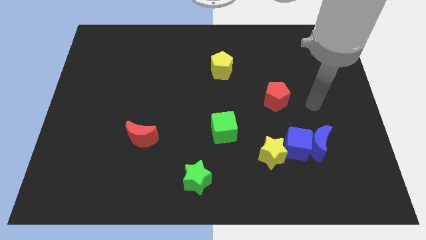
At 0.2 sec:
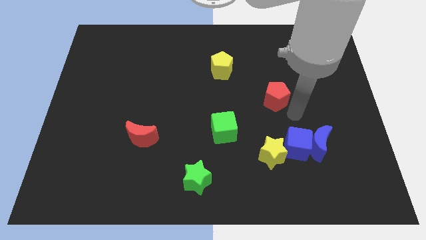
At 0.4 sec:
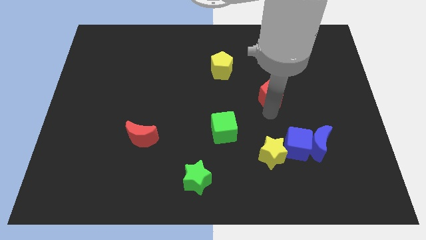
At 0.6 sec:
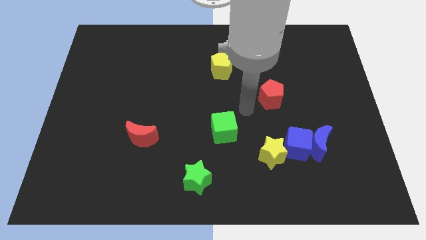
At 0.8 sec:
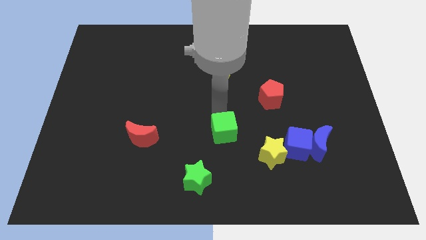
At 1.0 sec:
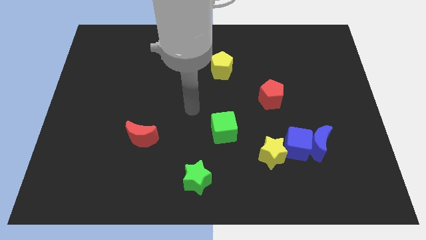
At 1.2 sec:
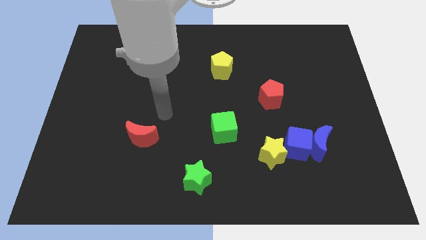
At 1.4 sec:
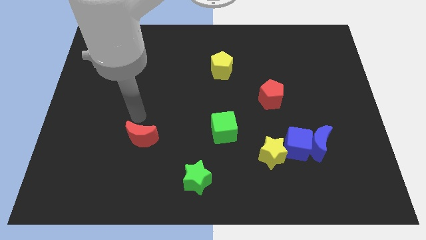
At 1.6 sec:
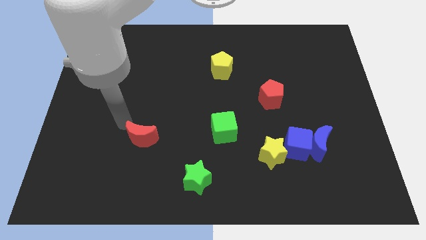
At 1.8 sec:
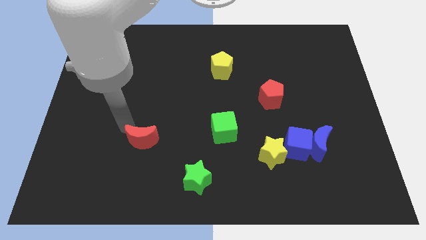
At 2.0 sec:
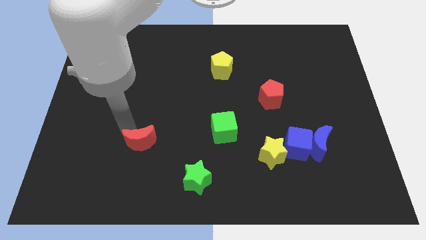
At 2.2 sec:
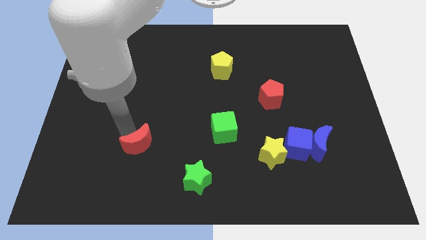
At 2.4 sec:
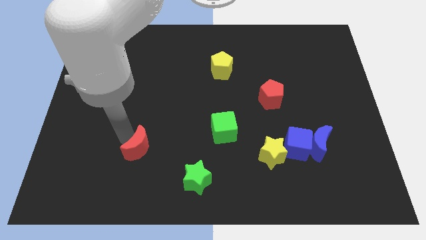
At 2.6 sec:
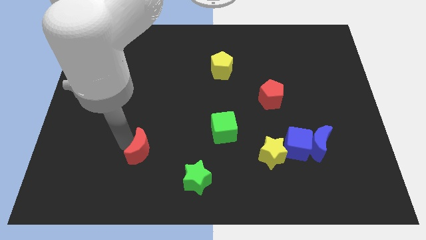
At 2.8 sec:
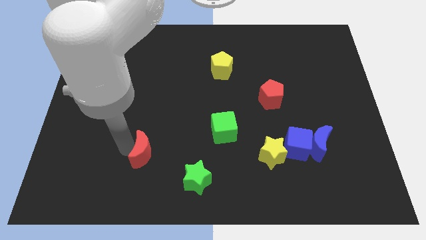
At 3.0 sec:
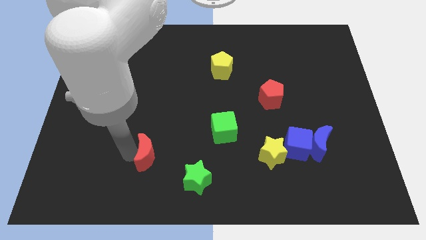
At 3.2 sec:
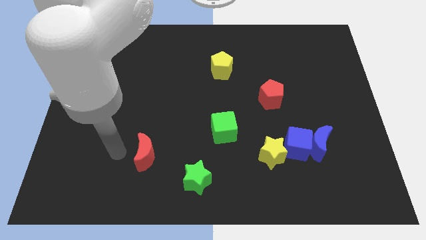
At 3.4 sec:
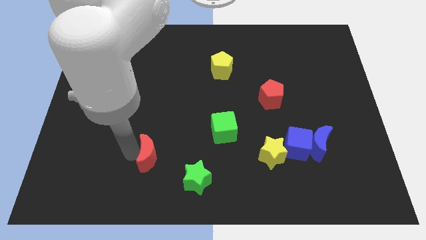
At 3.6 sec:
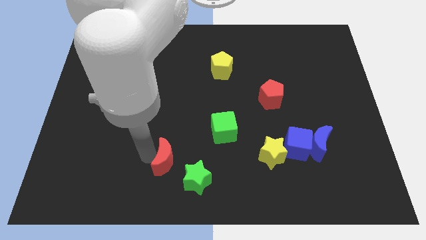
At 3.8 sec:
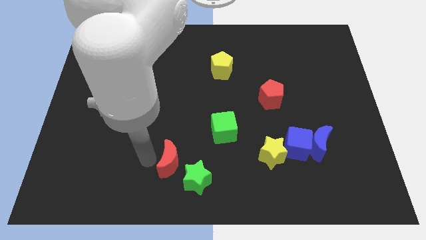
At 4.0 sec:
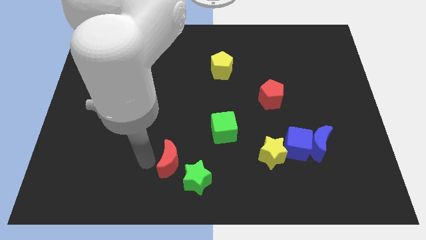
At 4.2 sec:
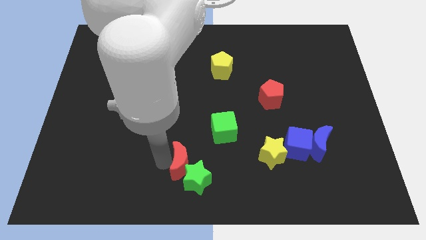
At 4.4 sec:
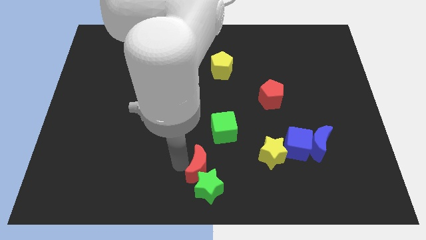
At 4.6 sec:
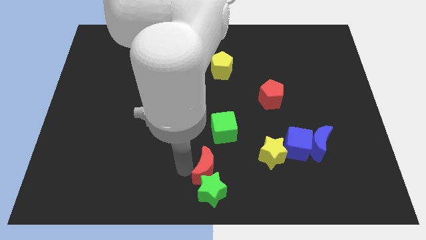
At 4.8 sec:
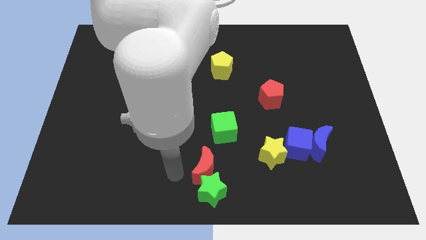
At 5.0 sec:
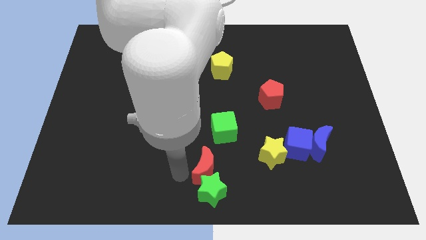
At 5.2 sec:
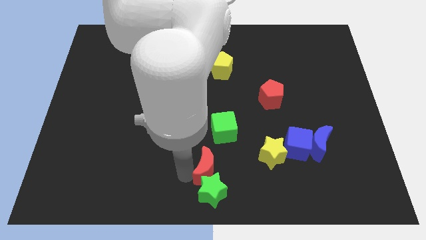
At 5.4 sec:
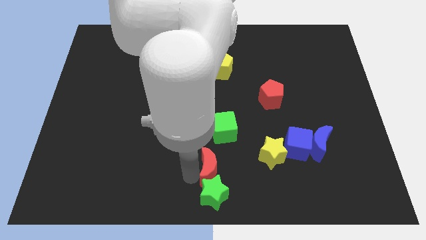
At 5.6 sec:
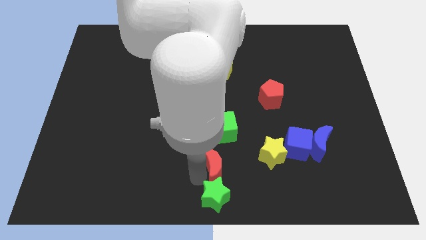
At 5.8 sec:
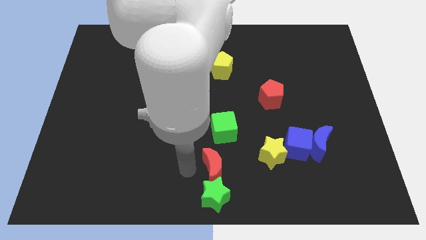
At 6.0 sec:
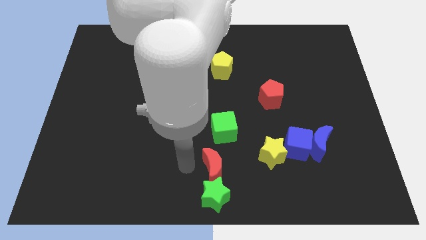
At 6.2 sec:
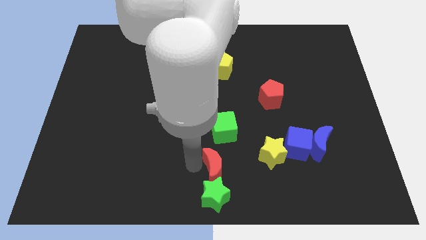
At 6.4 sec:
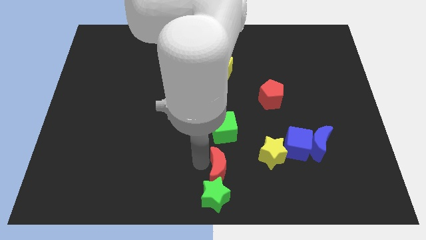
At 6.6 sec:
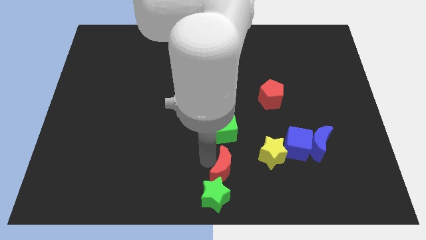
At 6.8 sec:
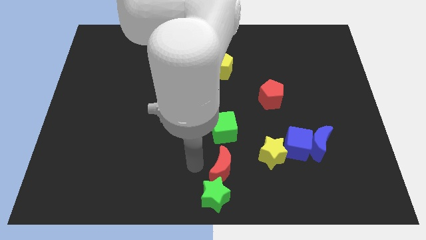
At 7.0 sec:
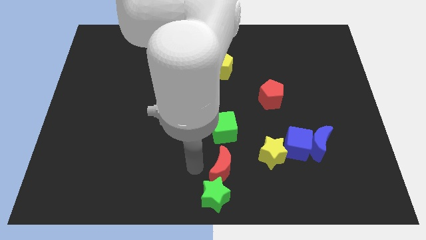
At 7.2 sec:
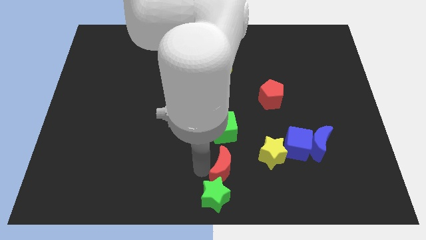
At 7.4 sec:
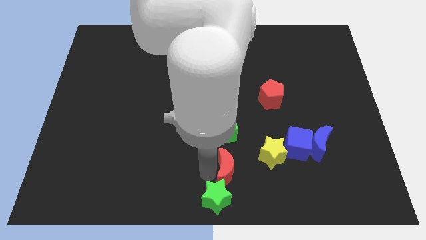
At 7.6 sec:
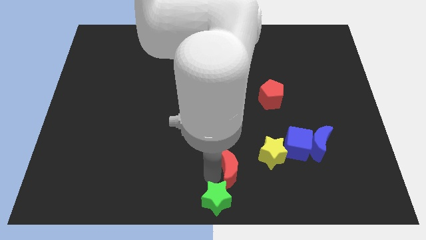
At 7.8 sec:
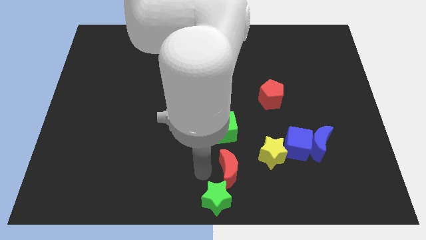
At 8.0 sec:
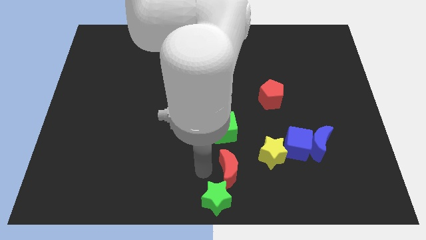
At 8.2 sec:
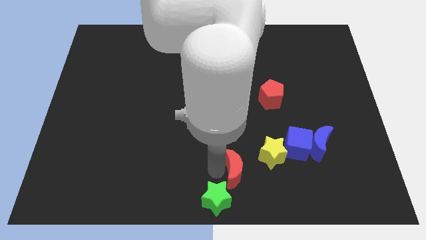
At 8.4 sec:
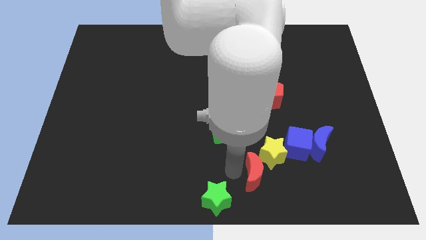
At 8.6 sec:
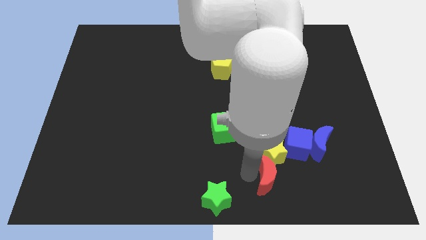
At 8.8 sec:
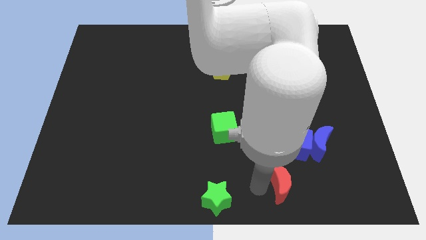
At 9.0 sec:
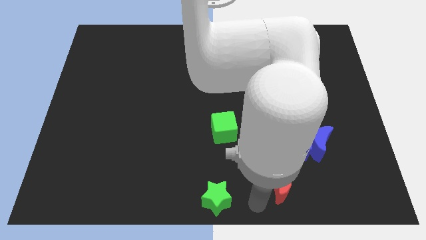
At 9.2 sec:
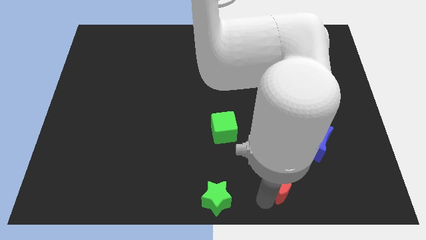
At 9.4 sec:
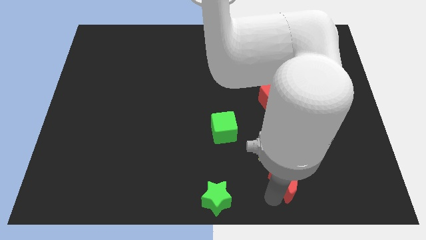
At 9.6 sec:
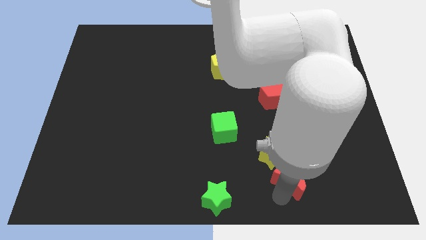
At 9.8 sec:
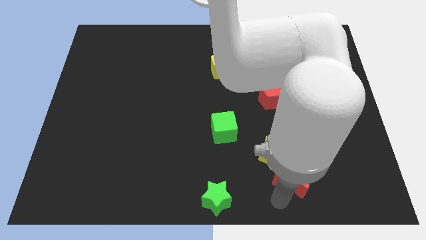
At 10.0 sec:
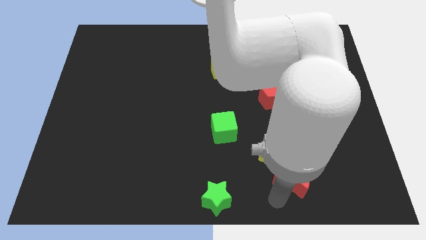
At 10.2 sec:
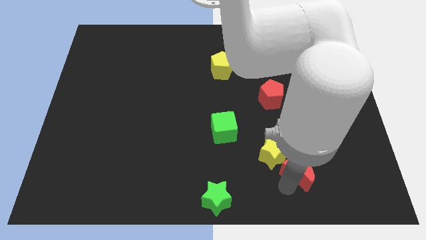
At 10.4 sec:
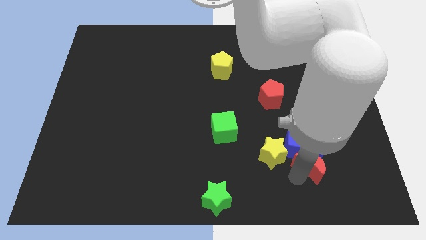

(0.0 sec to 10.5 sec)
slide the red moon next to the blue moon

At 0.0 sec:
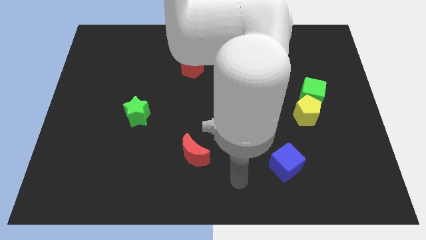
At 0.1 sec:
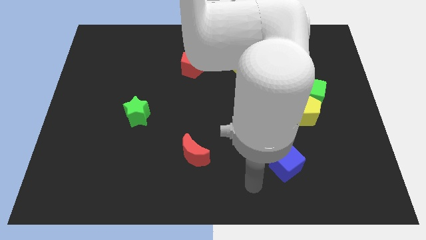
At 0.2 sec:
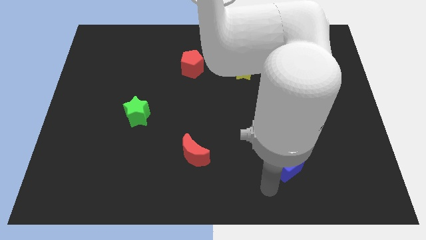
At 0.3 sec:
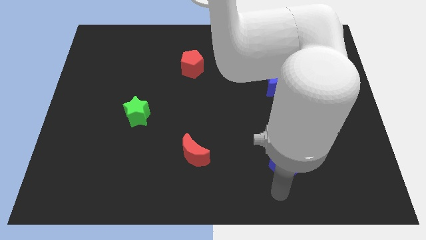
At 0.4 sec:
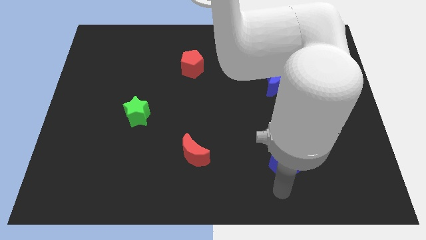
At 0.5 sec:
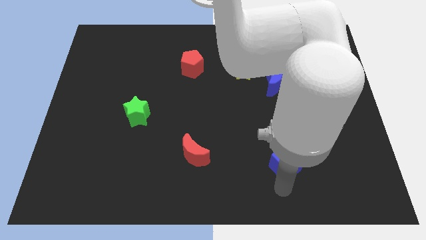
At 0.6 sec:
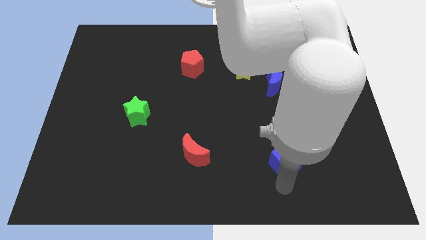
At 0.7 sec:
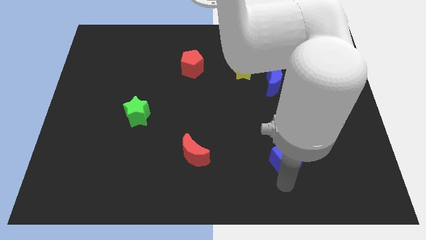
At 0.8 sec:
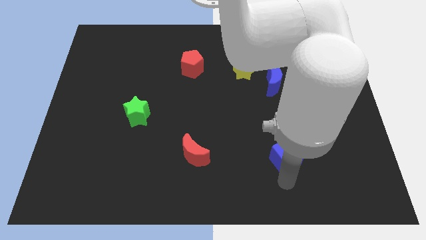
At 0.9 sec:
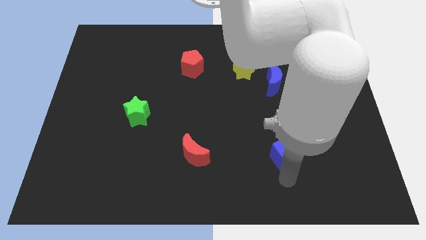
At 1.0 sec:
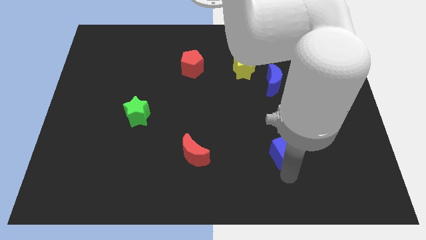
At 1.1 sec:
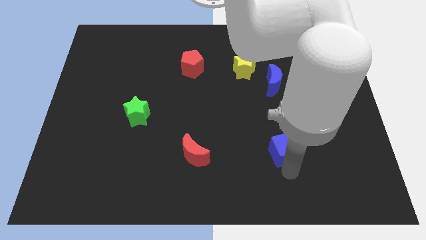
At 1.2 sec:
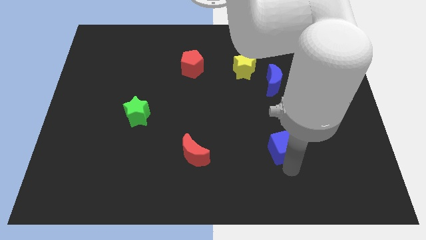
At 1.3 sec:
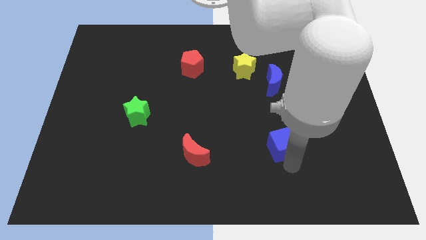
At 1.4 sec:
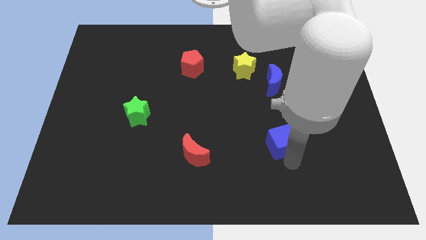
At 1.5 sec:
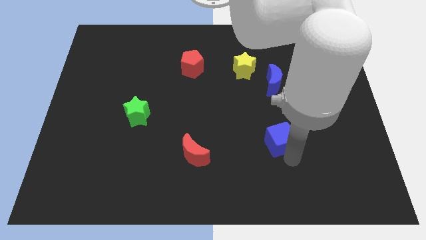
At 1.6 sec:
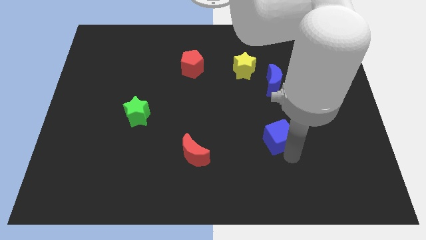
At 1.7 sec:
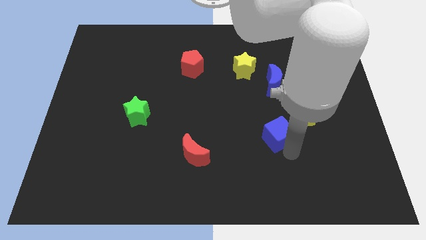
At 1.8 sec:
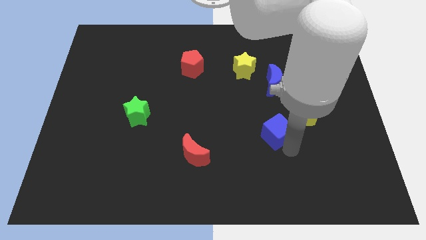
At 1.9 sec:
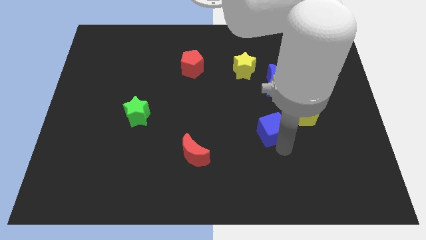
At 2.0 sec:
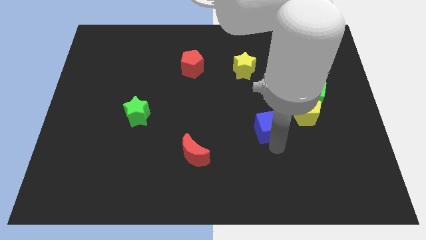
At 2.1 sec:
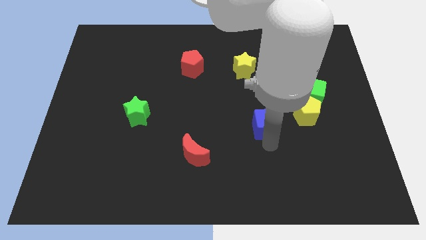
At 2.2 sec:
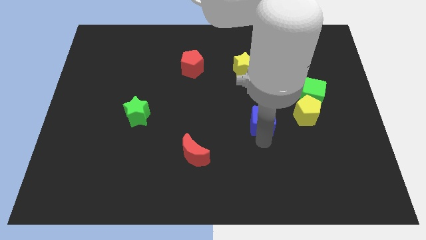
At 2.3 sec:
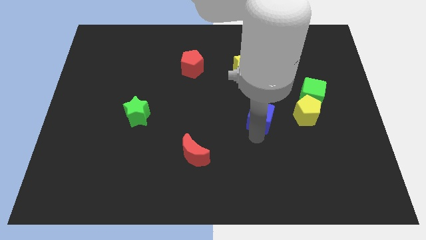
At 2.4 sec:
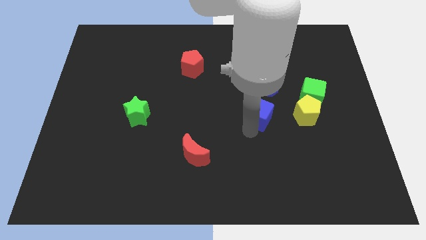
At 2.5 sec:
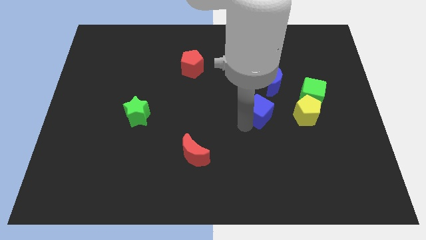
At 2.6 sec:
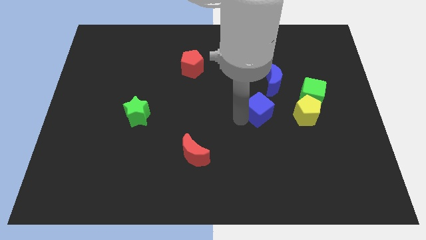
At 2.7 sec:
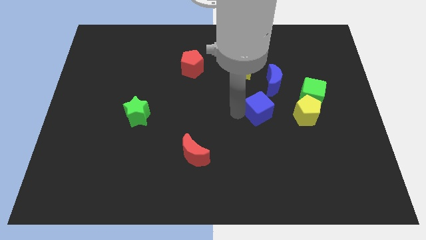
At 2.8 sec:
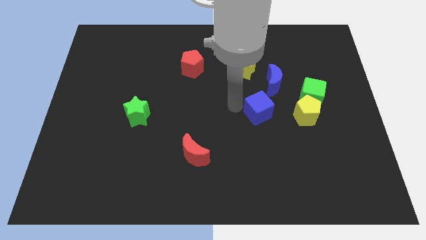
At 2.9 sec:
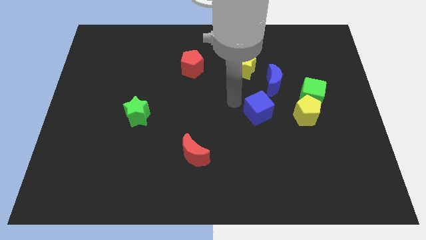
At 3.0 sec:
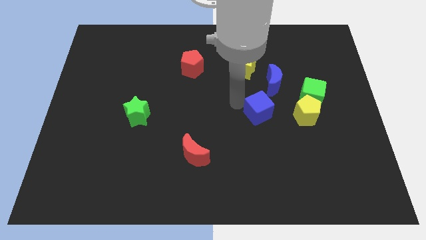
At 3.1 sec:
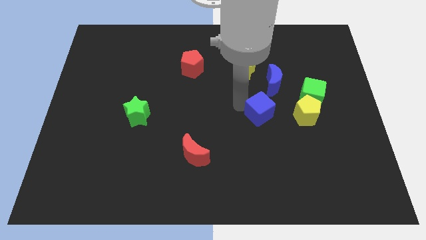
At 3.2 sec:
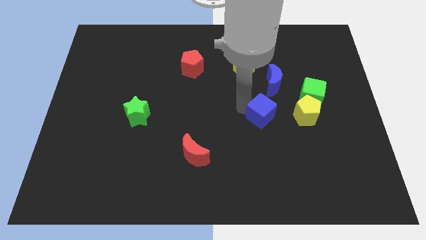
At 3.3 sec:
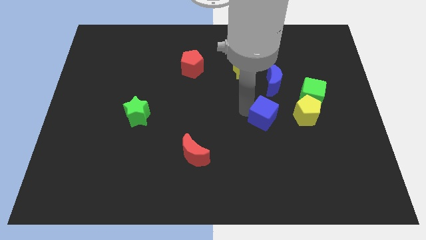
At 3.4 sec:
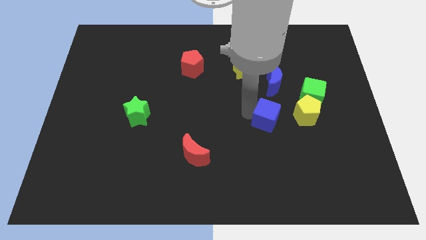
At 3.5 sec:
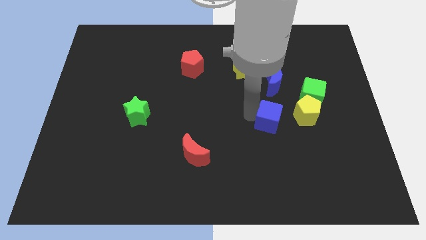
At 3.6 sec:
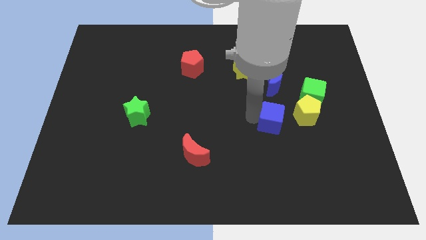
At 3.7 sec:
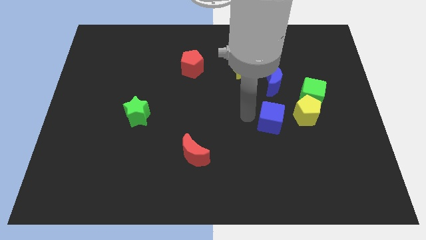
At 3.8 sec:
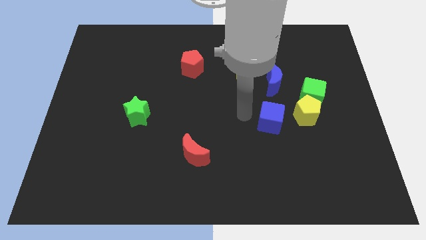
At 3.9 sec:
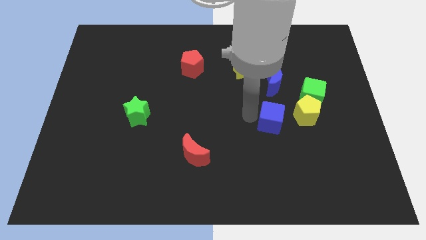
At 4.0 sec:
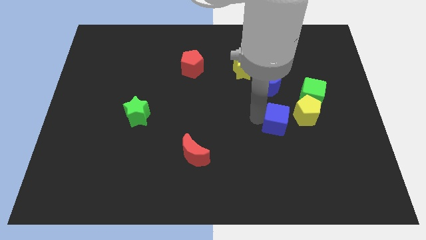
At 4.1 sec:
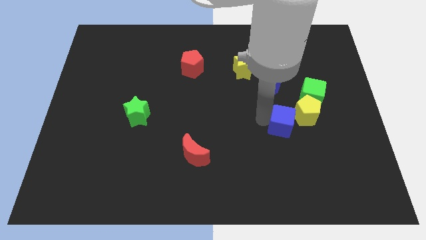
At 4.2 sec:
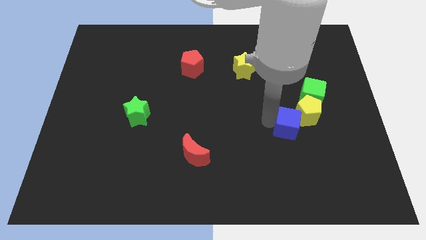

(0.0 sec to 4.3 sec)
slide the blue cube close to the yellow pentagon
